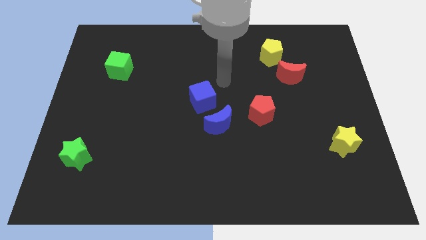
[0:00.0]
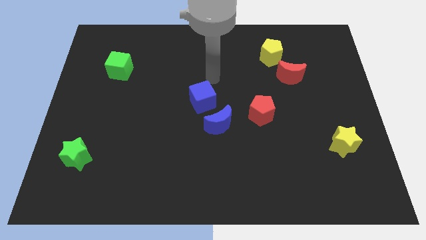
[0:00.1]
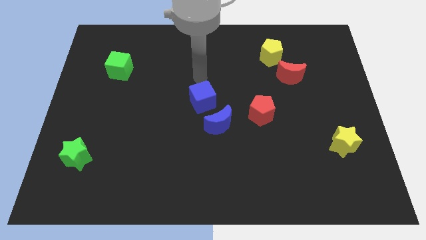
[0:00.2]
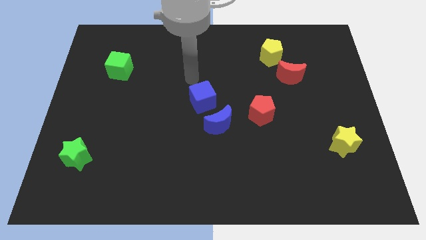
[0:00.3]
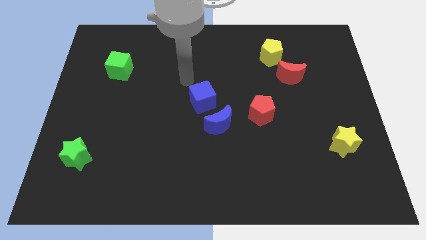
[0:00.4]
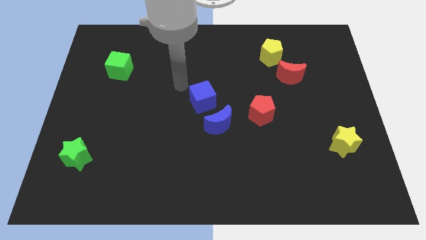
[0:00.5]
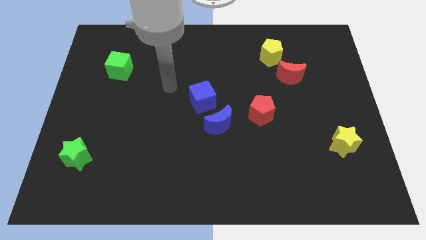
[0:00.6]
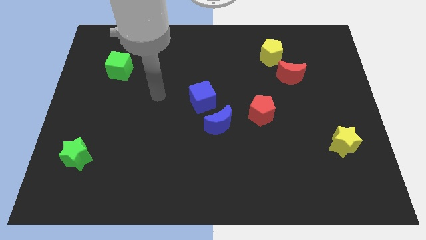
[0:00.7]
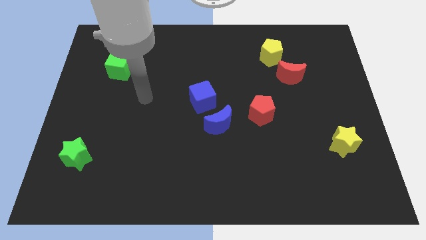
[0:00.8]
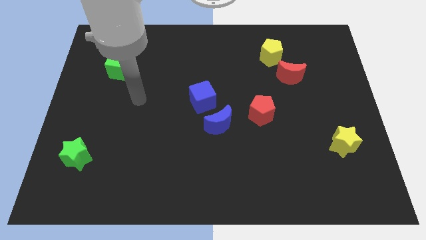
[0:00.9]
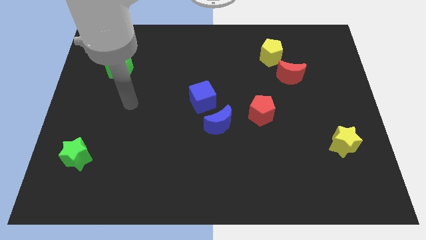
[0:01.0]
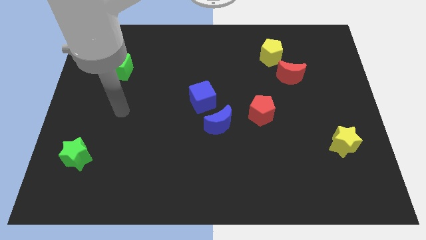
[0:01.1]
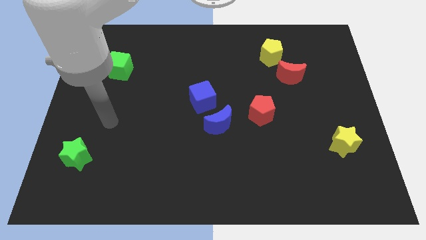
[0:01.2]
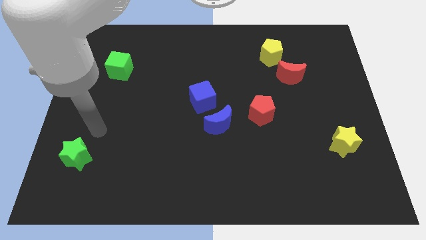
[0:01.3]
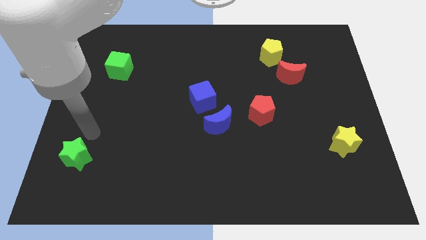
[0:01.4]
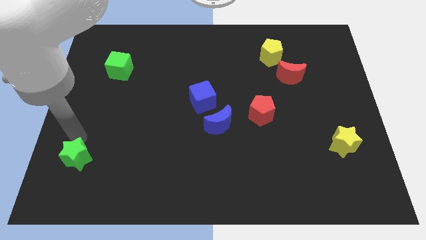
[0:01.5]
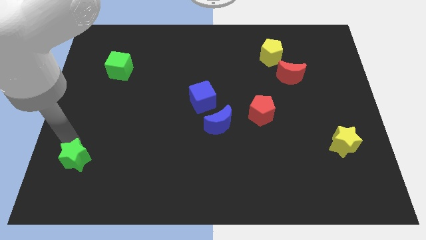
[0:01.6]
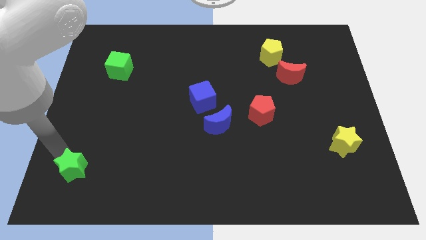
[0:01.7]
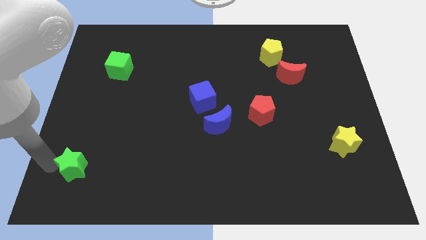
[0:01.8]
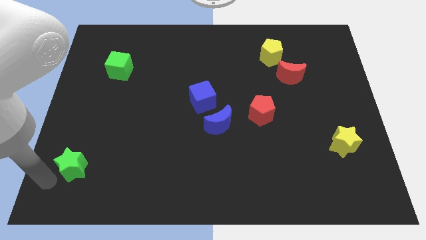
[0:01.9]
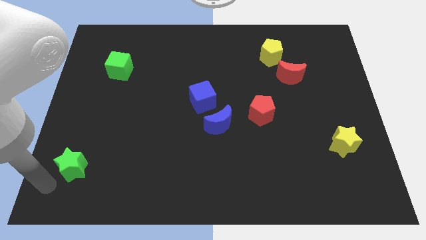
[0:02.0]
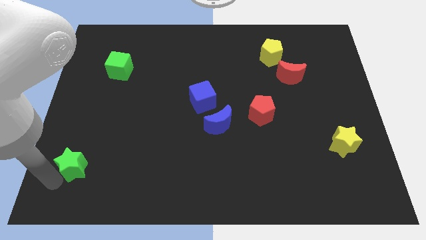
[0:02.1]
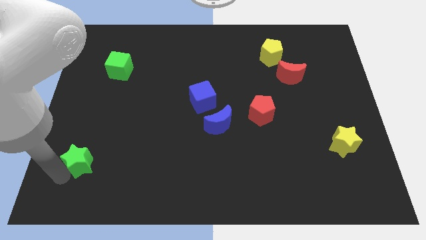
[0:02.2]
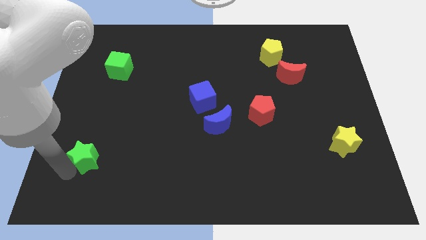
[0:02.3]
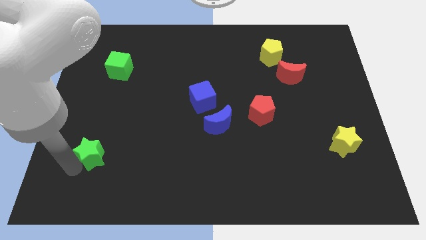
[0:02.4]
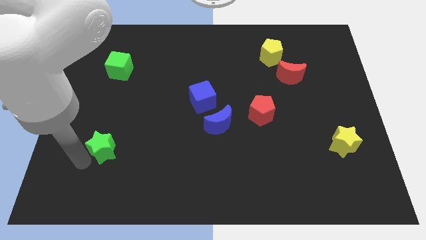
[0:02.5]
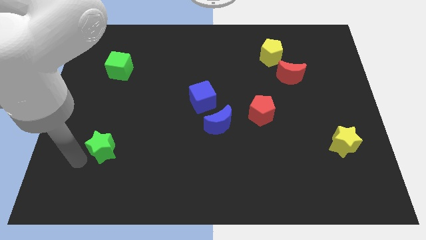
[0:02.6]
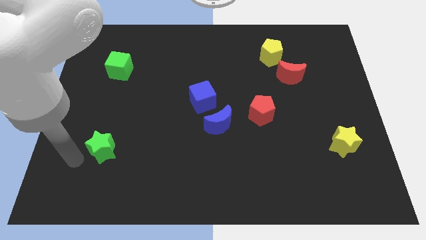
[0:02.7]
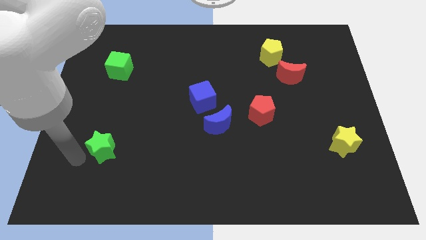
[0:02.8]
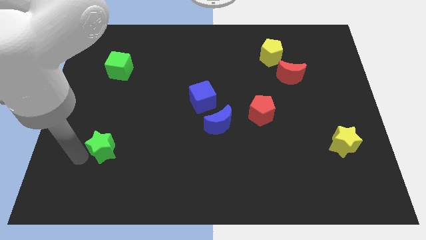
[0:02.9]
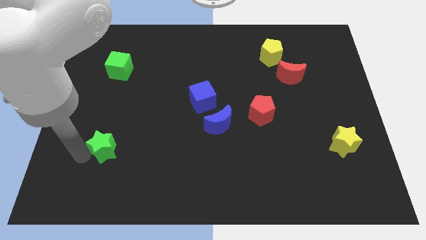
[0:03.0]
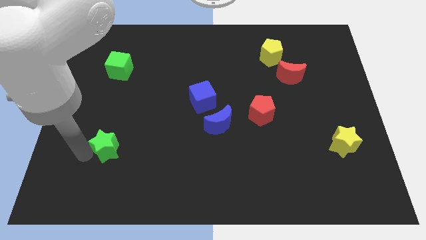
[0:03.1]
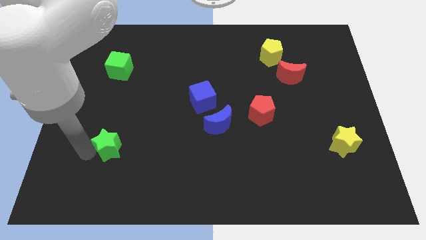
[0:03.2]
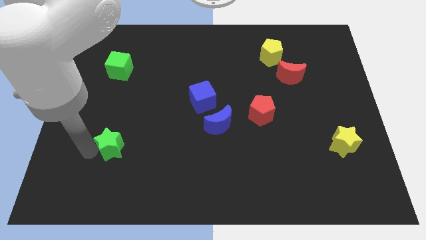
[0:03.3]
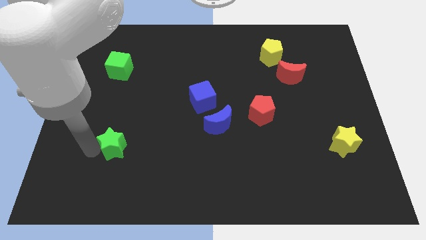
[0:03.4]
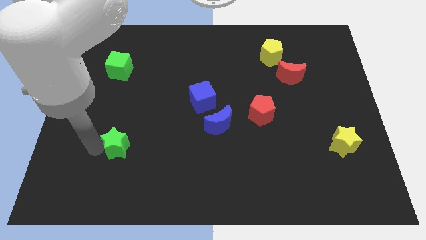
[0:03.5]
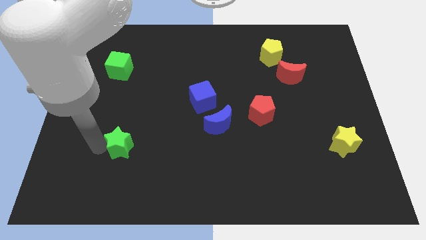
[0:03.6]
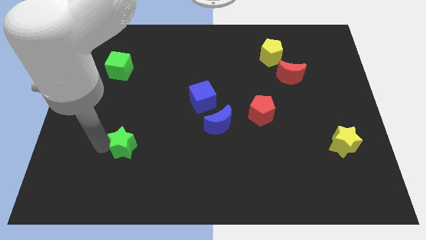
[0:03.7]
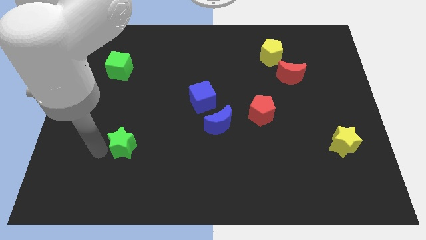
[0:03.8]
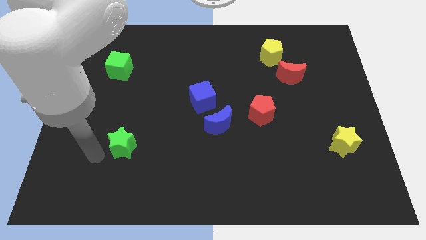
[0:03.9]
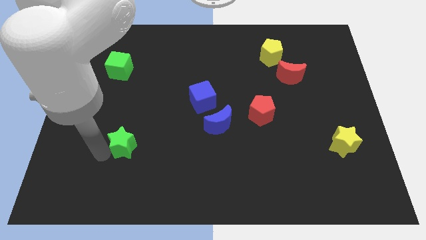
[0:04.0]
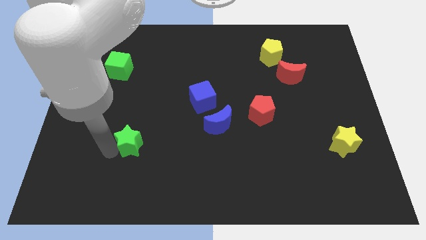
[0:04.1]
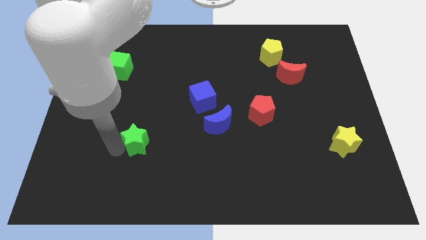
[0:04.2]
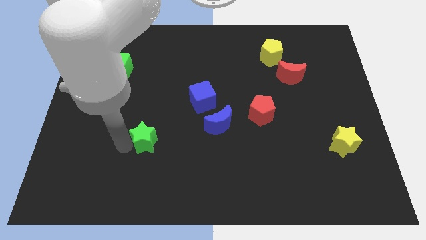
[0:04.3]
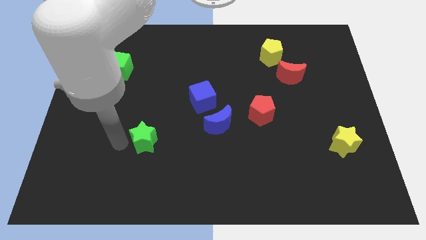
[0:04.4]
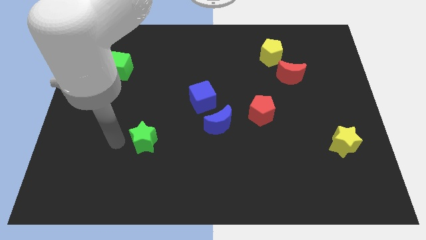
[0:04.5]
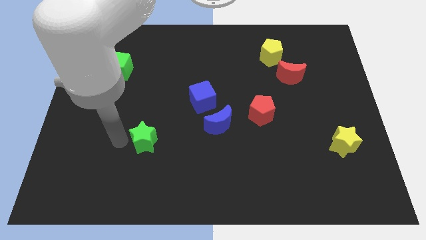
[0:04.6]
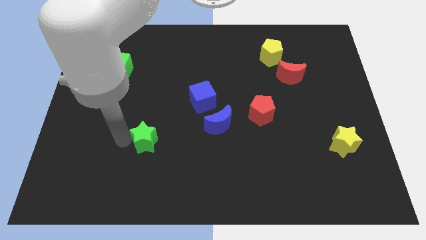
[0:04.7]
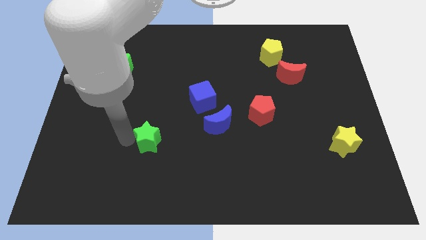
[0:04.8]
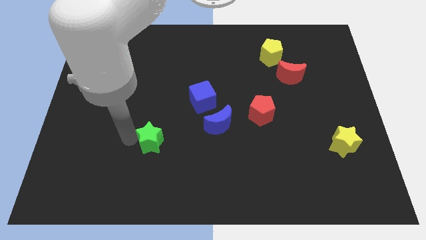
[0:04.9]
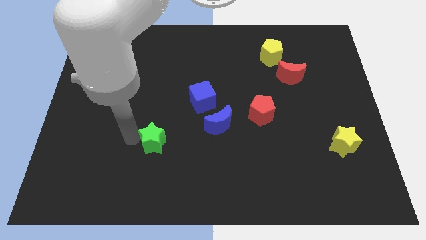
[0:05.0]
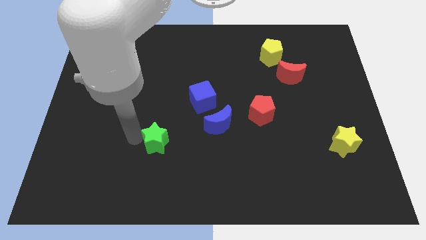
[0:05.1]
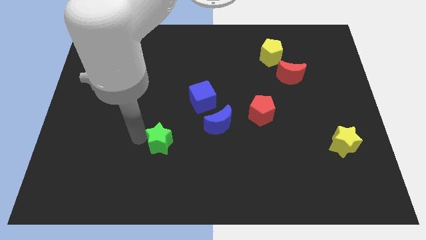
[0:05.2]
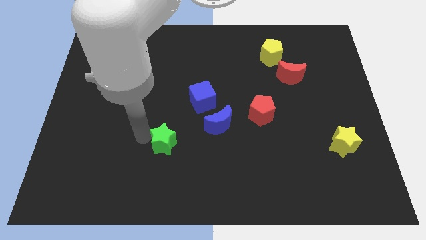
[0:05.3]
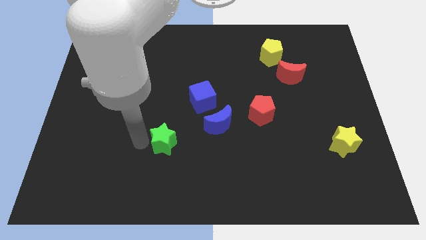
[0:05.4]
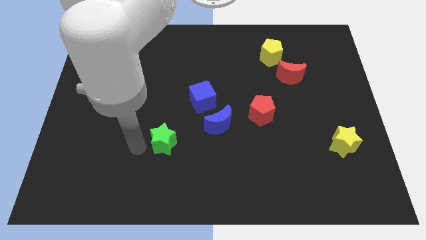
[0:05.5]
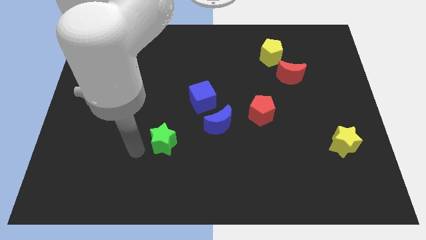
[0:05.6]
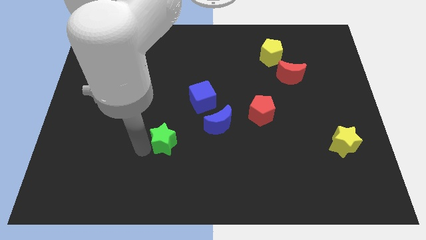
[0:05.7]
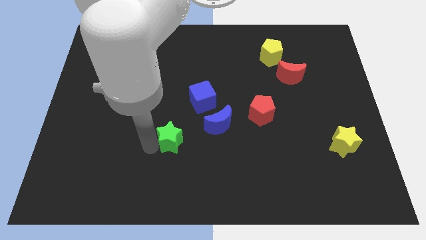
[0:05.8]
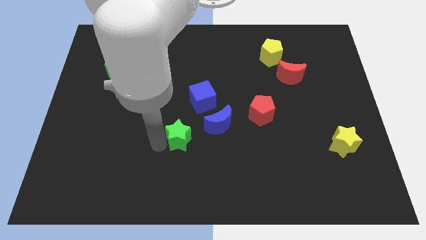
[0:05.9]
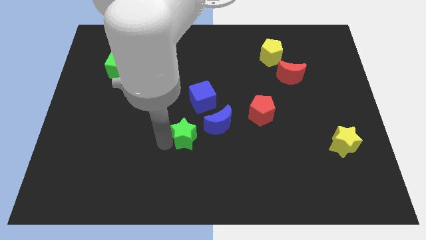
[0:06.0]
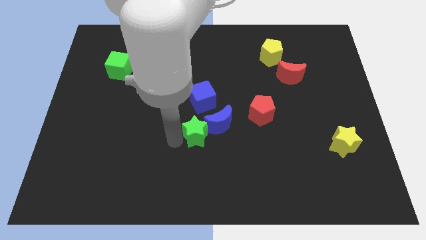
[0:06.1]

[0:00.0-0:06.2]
move the green star next to the blue moon

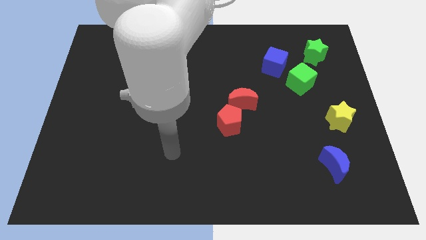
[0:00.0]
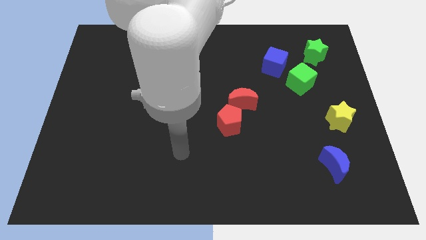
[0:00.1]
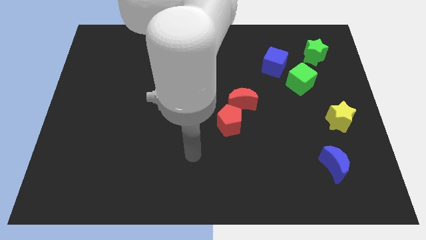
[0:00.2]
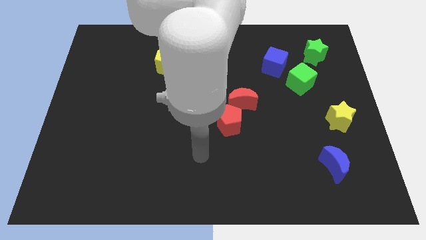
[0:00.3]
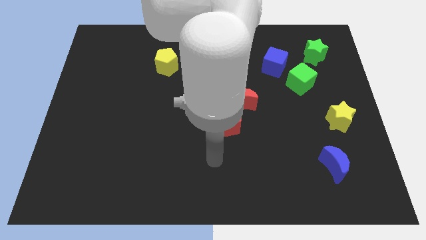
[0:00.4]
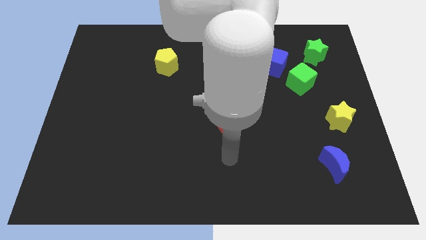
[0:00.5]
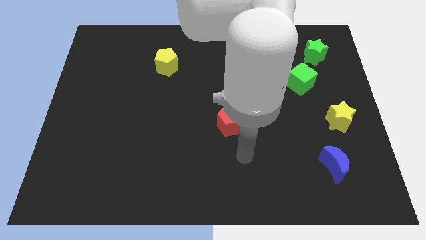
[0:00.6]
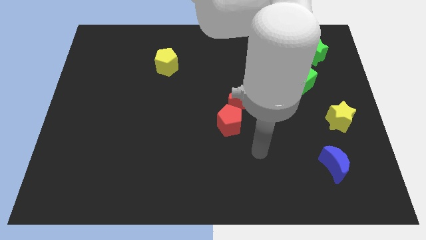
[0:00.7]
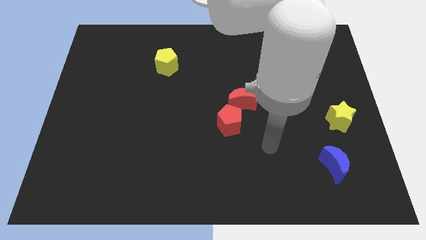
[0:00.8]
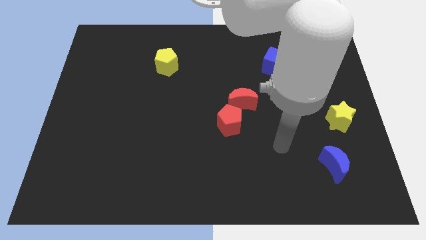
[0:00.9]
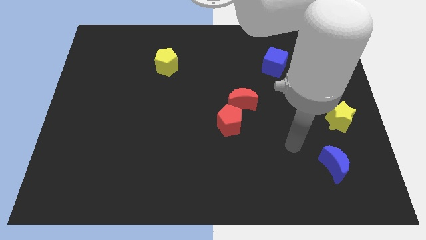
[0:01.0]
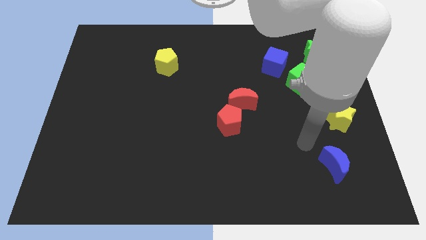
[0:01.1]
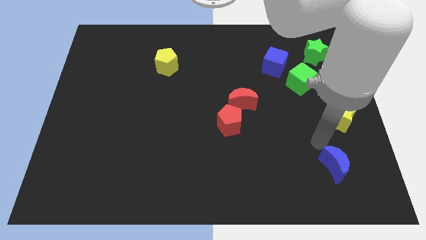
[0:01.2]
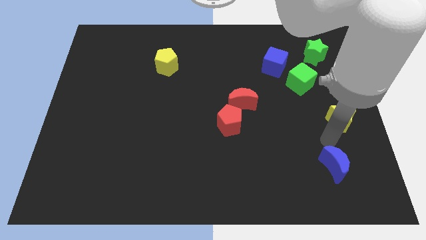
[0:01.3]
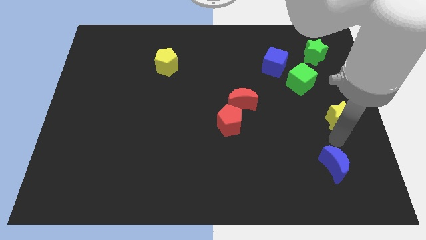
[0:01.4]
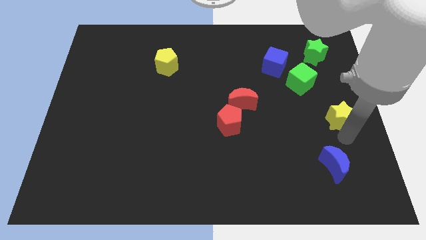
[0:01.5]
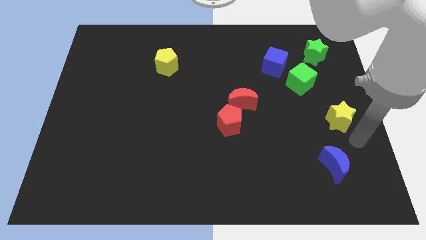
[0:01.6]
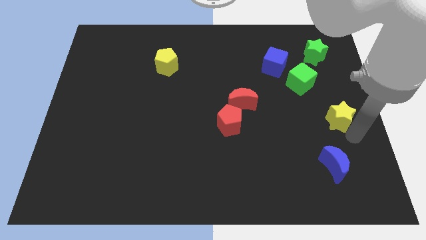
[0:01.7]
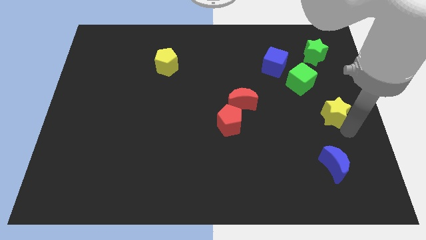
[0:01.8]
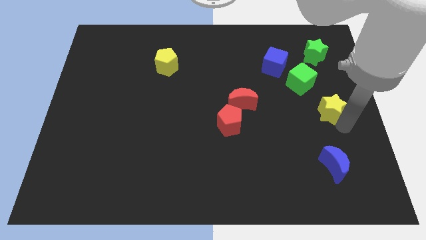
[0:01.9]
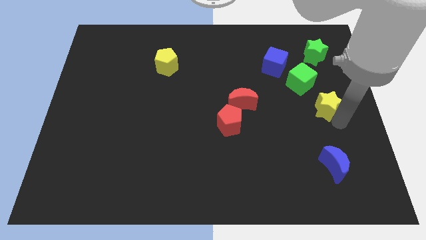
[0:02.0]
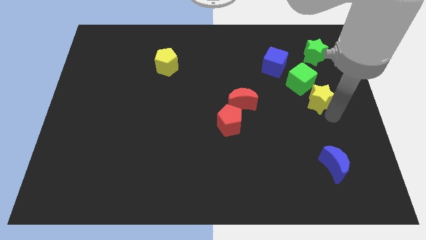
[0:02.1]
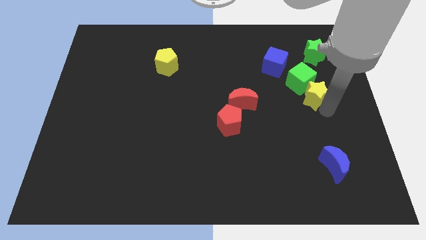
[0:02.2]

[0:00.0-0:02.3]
slide the yellow star close to the green cube
